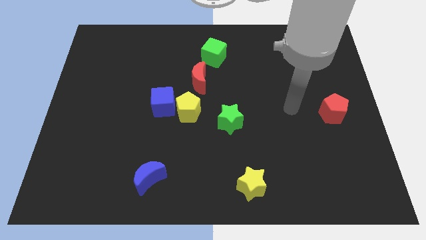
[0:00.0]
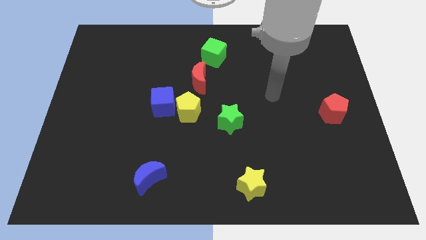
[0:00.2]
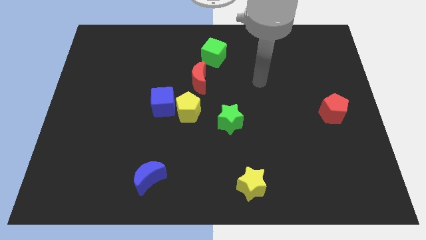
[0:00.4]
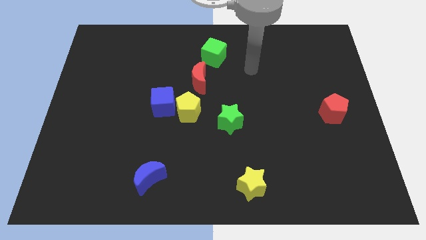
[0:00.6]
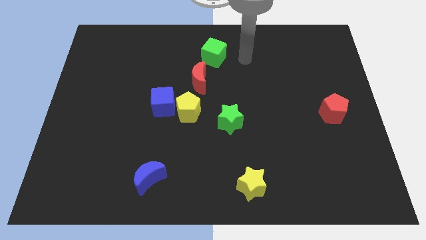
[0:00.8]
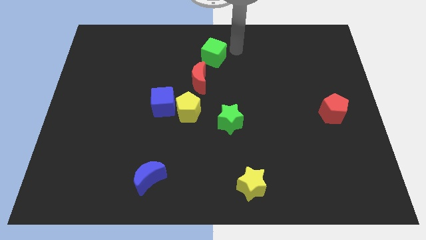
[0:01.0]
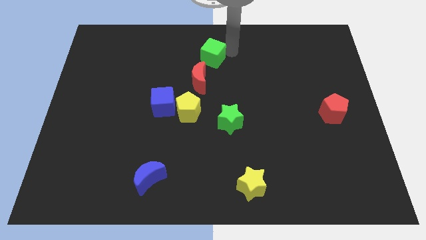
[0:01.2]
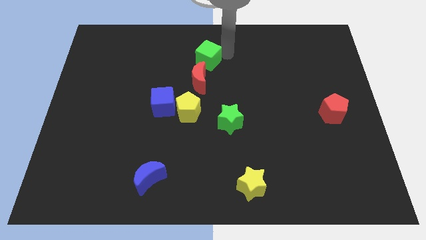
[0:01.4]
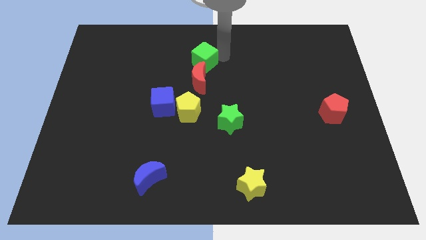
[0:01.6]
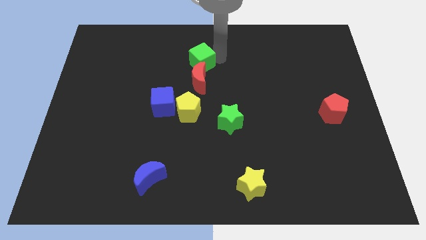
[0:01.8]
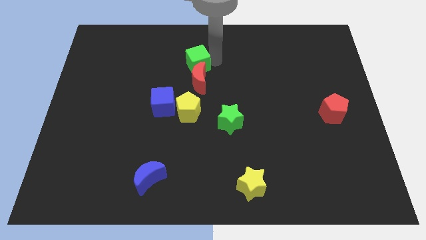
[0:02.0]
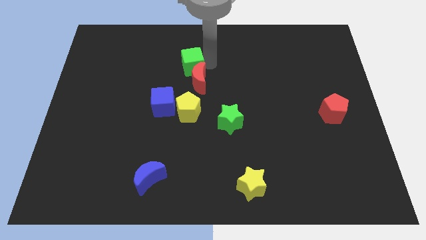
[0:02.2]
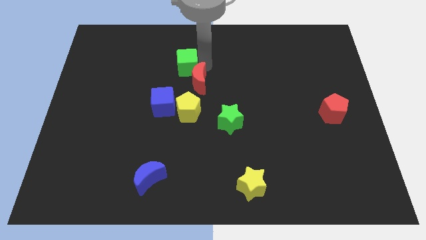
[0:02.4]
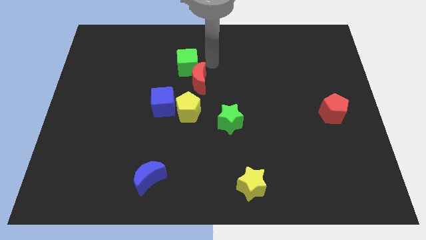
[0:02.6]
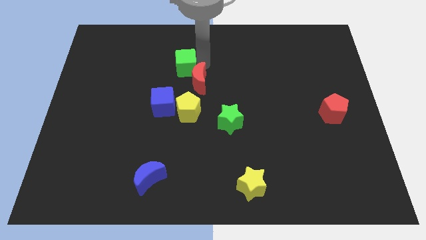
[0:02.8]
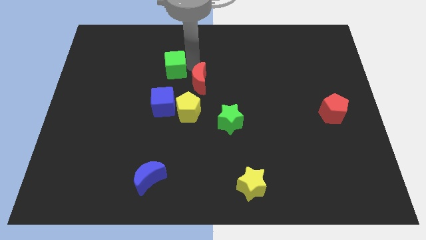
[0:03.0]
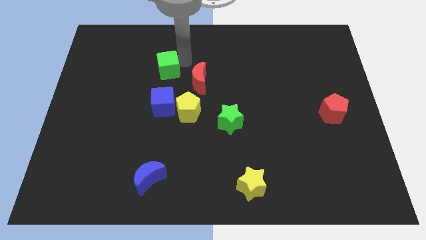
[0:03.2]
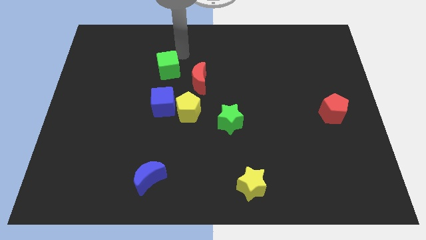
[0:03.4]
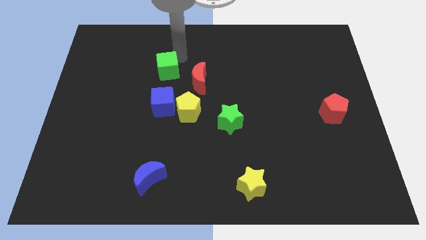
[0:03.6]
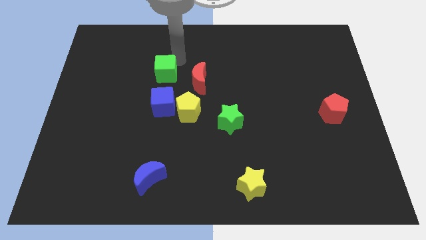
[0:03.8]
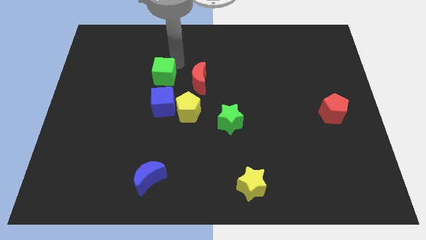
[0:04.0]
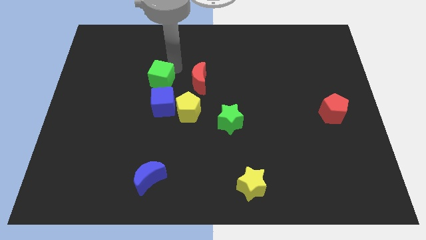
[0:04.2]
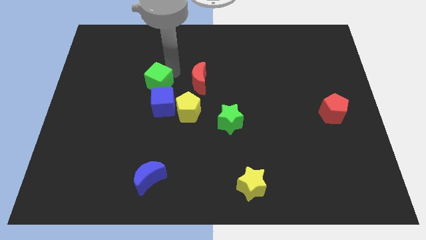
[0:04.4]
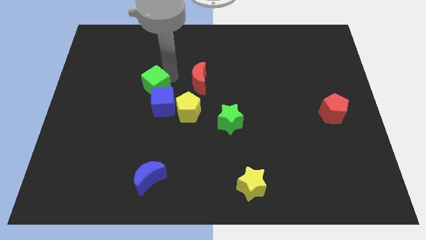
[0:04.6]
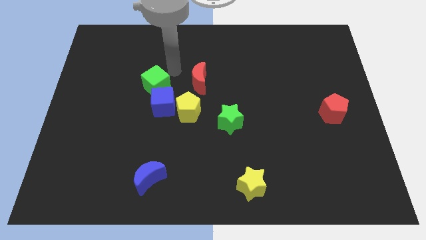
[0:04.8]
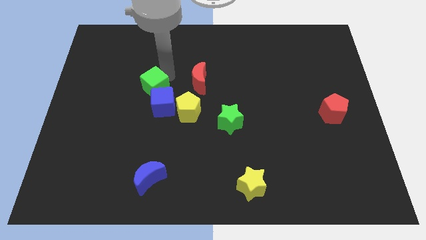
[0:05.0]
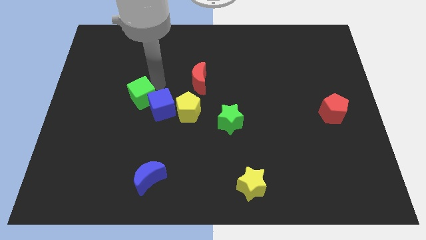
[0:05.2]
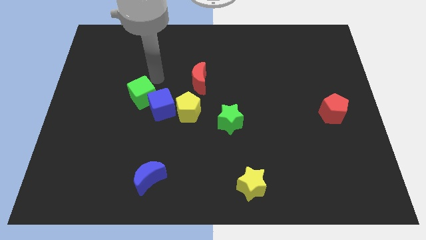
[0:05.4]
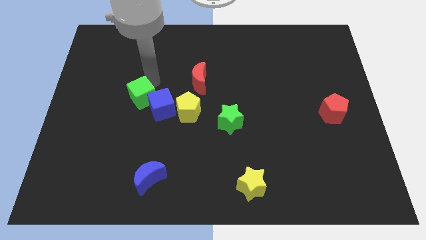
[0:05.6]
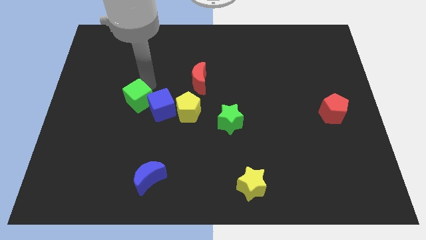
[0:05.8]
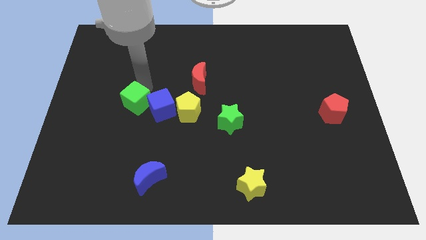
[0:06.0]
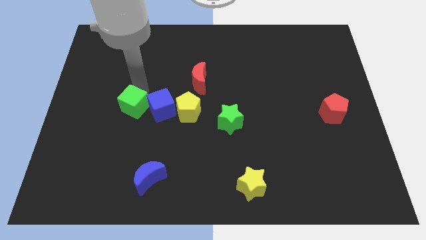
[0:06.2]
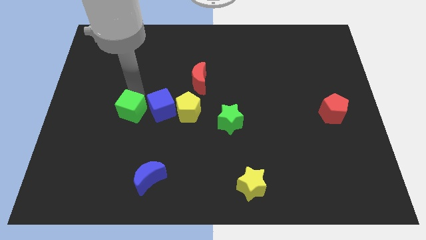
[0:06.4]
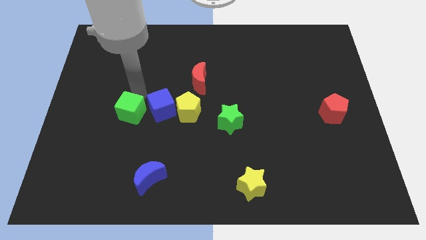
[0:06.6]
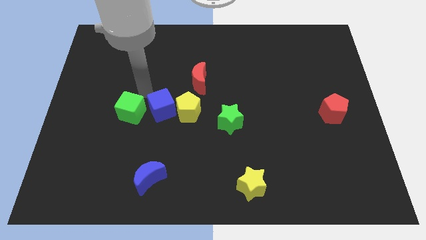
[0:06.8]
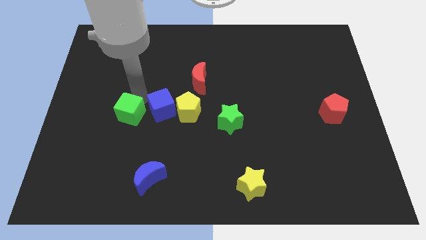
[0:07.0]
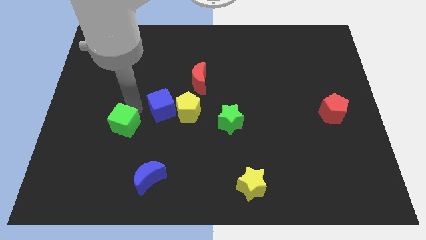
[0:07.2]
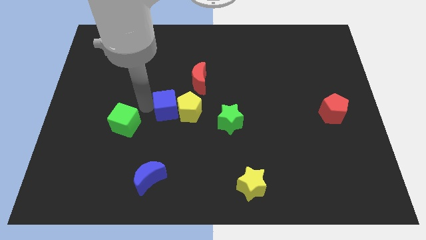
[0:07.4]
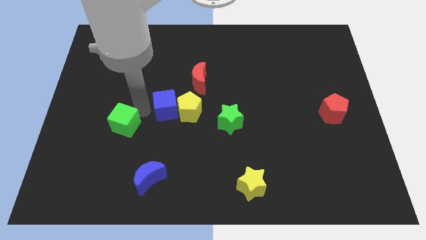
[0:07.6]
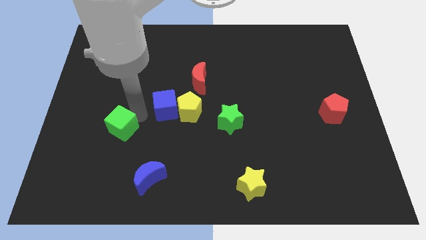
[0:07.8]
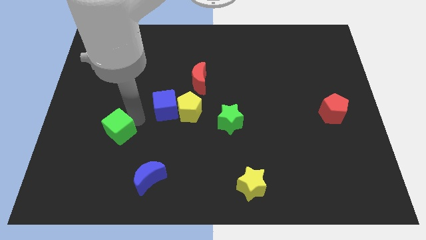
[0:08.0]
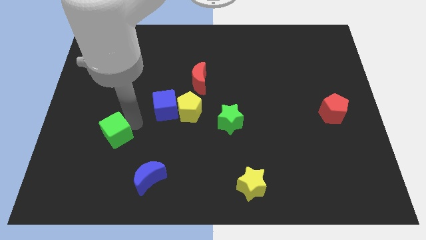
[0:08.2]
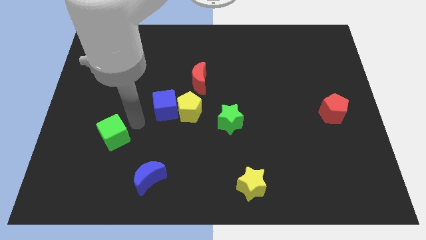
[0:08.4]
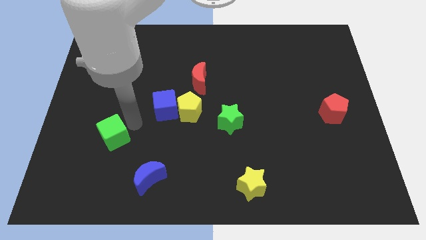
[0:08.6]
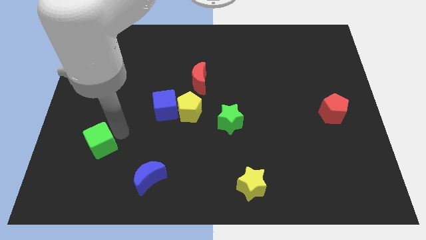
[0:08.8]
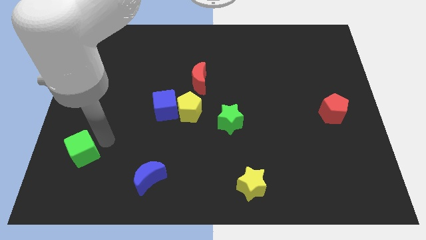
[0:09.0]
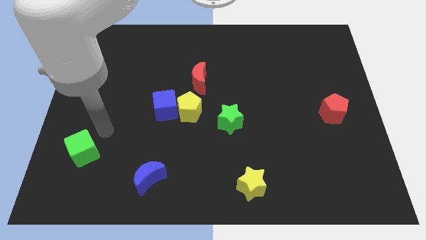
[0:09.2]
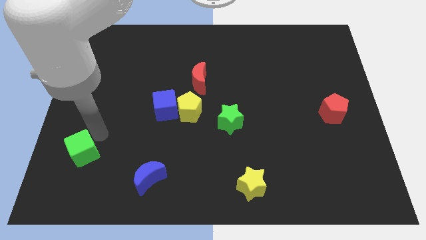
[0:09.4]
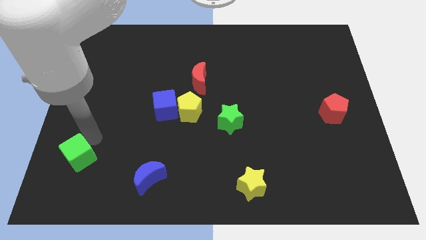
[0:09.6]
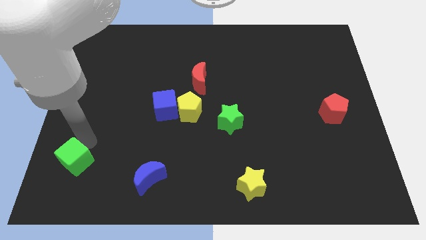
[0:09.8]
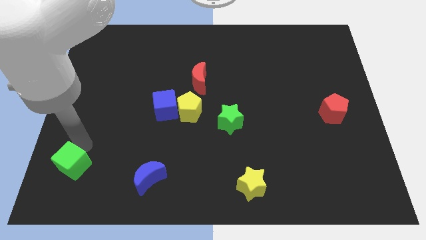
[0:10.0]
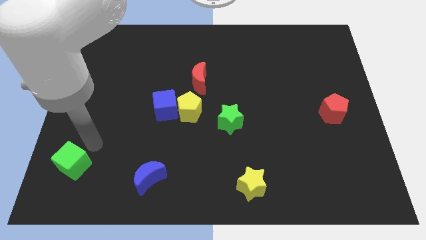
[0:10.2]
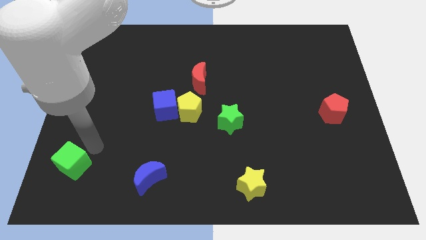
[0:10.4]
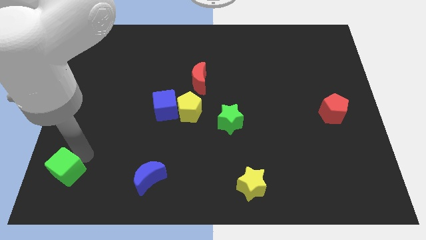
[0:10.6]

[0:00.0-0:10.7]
move the green cube to the bottom left of the board

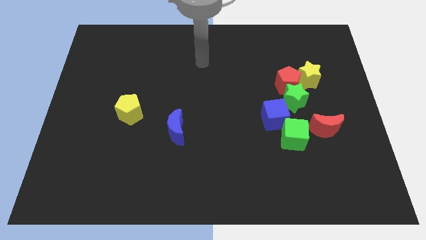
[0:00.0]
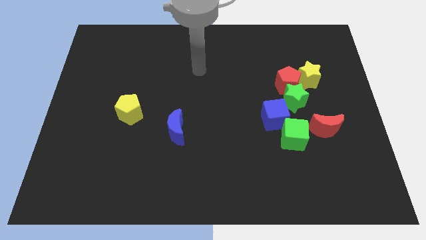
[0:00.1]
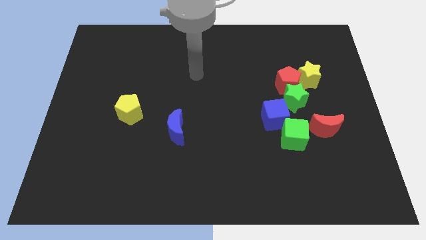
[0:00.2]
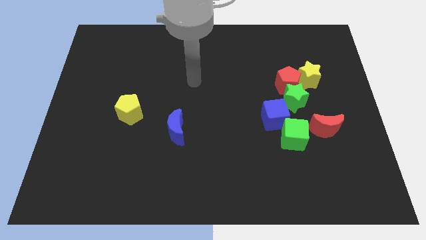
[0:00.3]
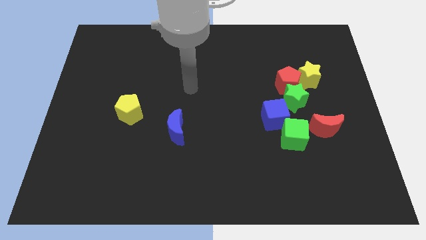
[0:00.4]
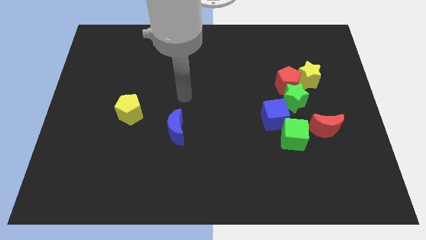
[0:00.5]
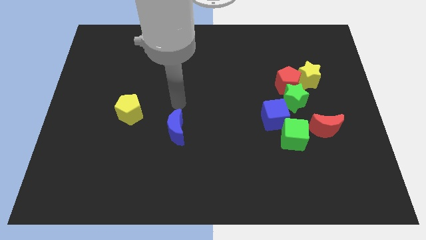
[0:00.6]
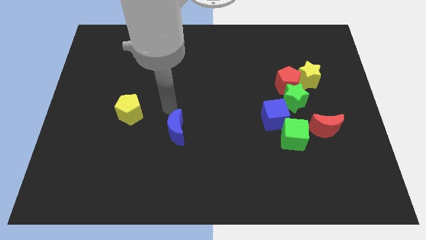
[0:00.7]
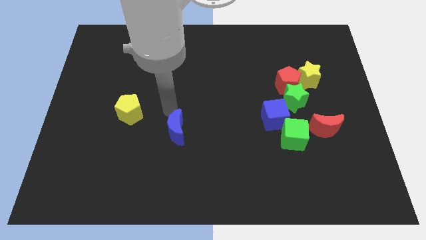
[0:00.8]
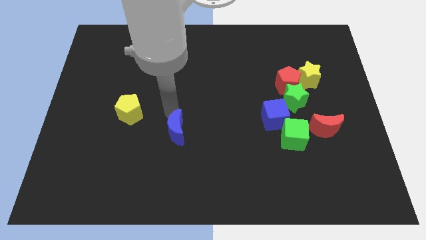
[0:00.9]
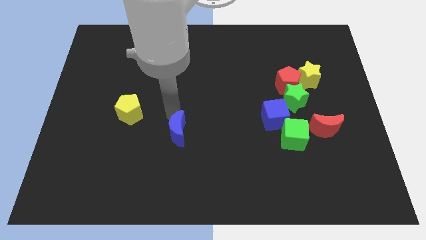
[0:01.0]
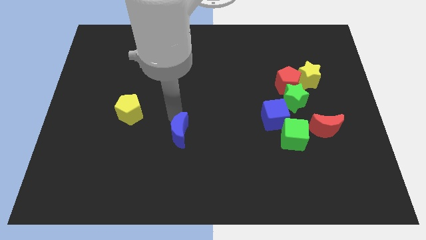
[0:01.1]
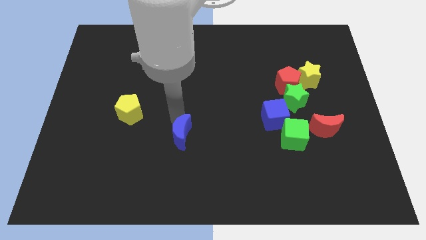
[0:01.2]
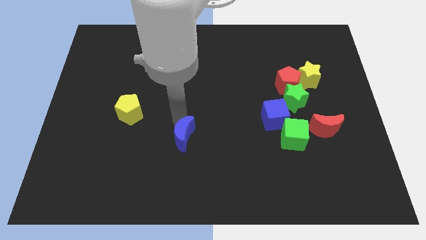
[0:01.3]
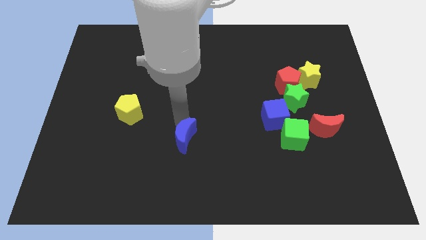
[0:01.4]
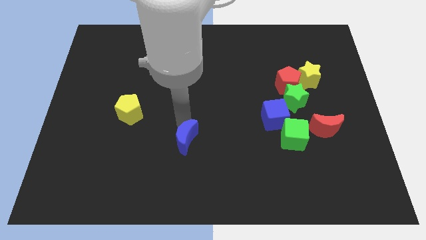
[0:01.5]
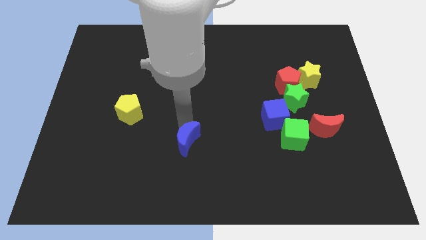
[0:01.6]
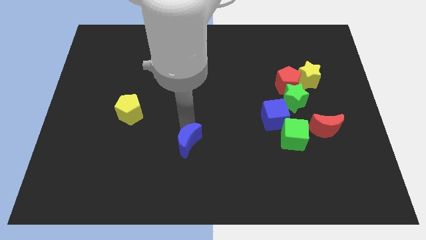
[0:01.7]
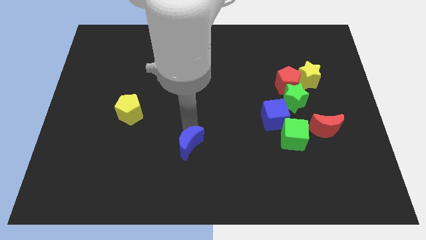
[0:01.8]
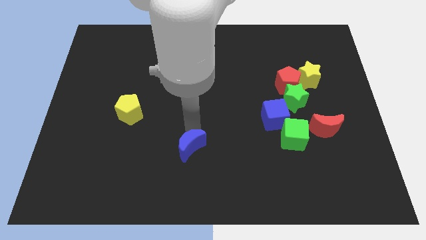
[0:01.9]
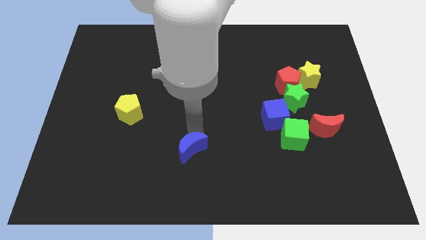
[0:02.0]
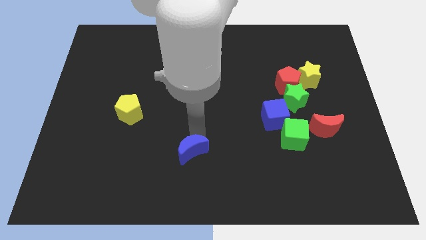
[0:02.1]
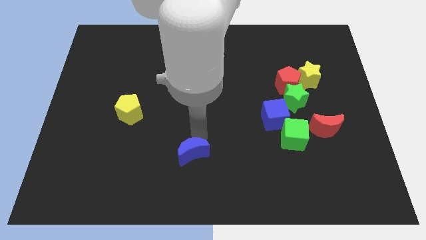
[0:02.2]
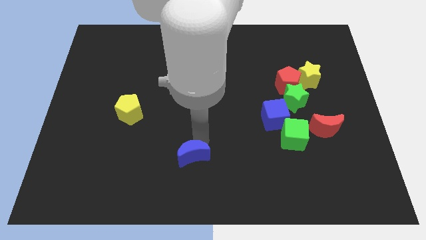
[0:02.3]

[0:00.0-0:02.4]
slide the blue moon to the bottom side
